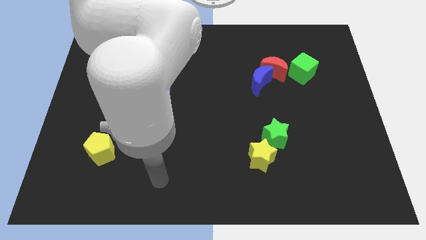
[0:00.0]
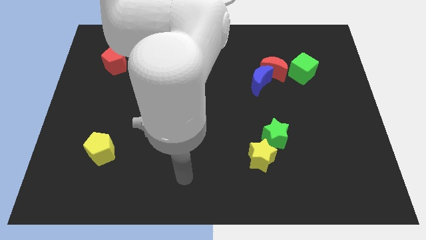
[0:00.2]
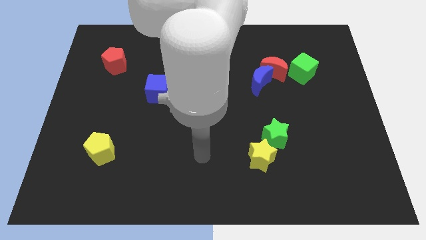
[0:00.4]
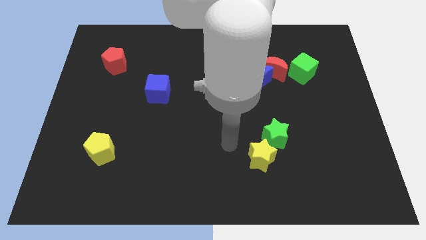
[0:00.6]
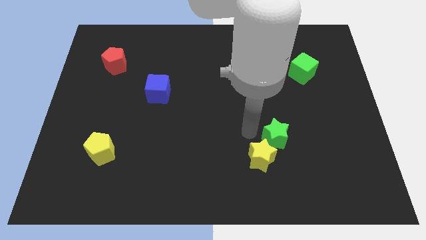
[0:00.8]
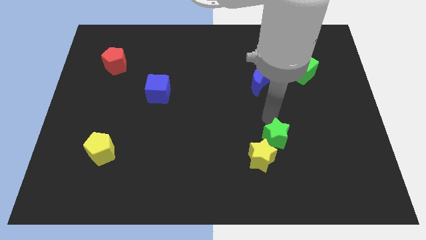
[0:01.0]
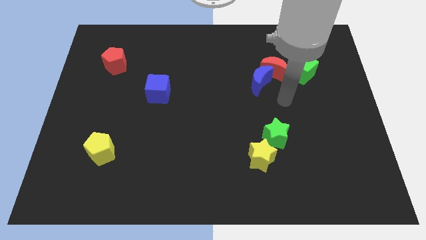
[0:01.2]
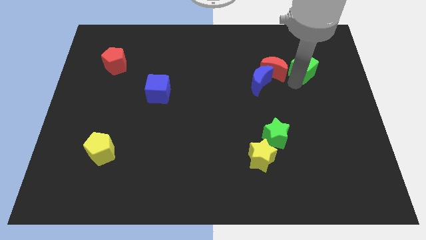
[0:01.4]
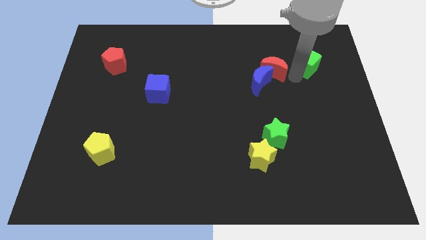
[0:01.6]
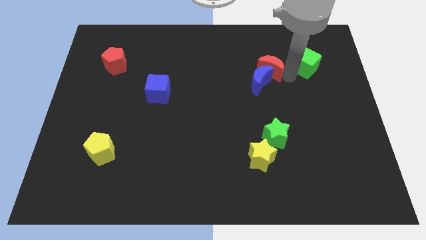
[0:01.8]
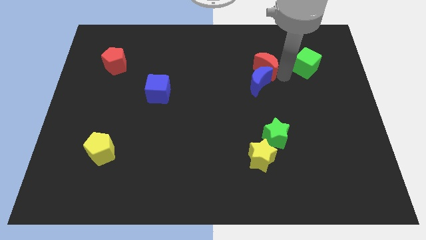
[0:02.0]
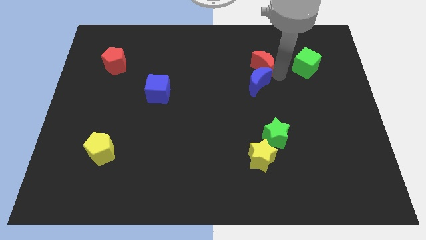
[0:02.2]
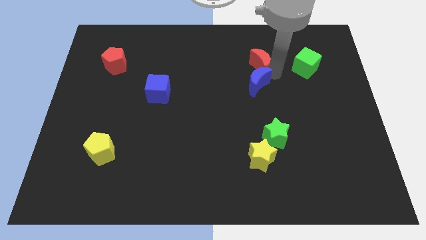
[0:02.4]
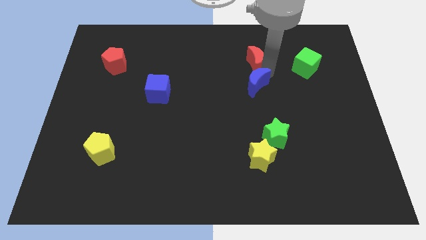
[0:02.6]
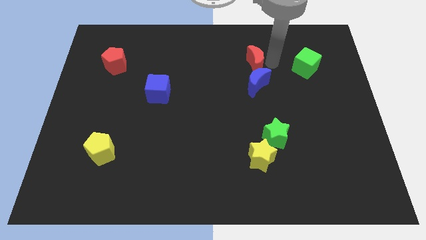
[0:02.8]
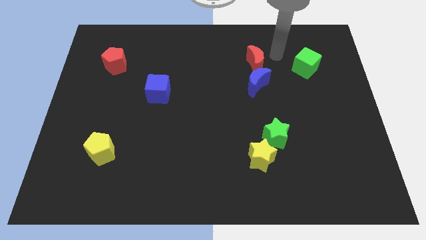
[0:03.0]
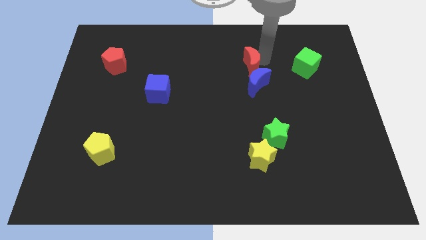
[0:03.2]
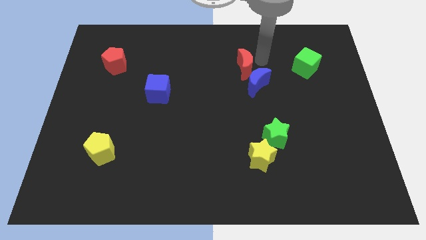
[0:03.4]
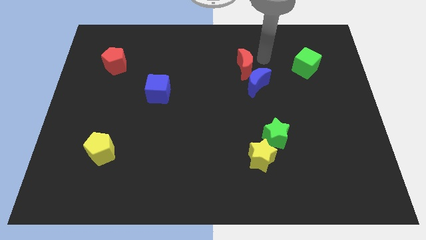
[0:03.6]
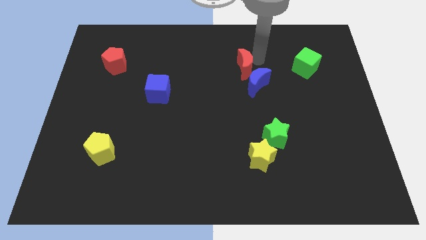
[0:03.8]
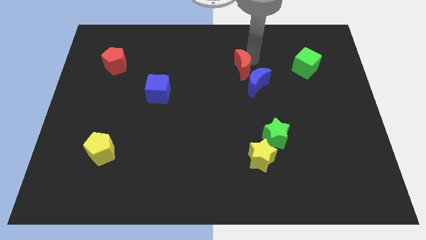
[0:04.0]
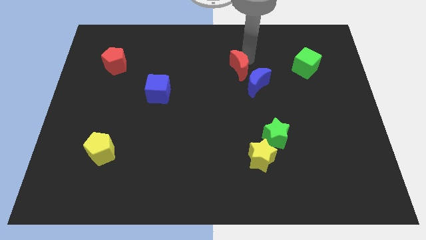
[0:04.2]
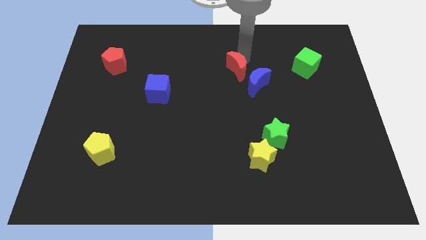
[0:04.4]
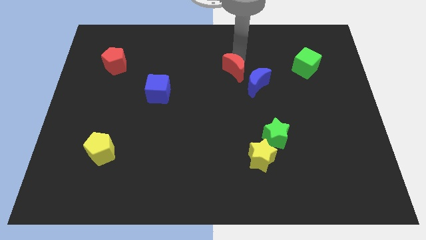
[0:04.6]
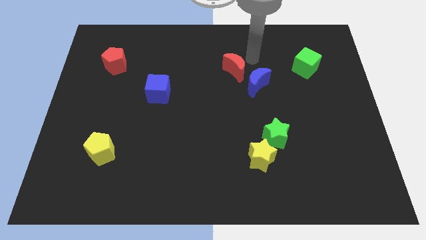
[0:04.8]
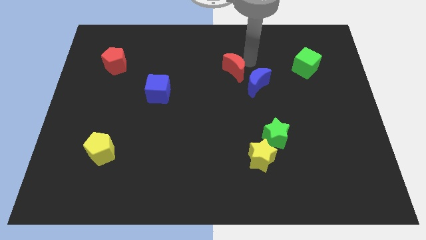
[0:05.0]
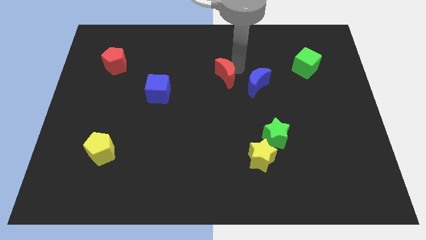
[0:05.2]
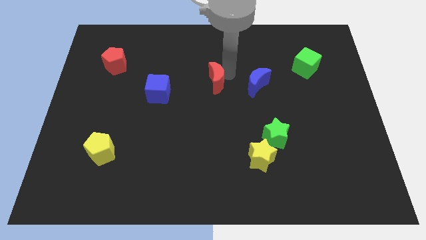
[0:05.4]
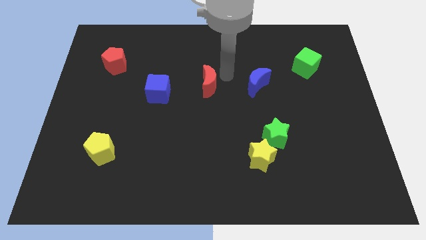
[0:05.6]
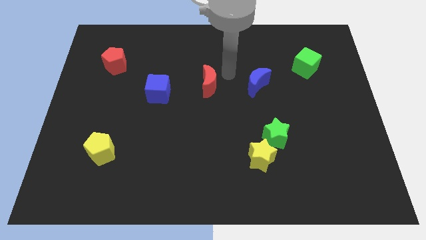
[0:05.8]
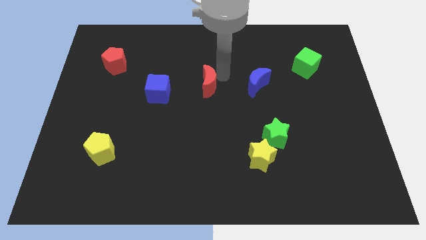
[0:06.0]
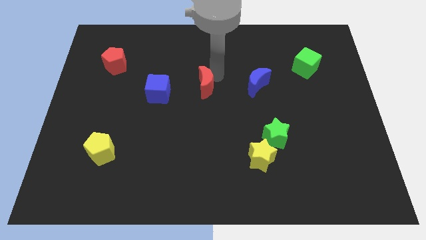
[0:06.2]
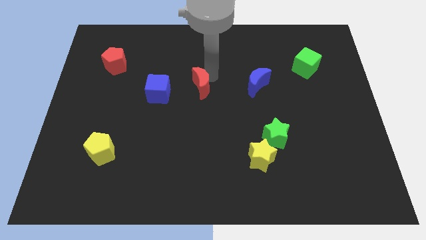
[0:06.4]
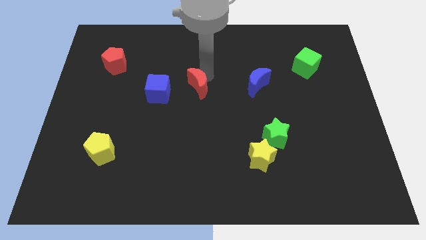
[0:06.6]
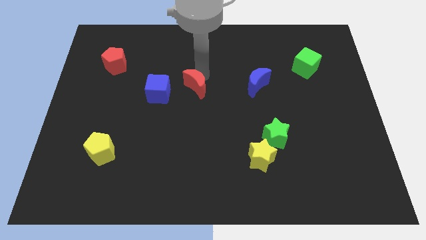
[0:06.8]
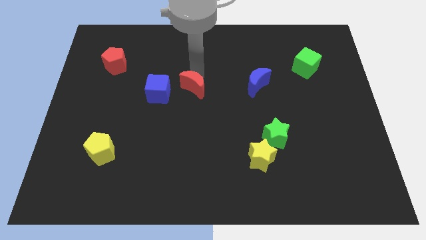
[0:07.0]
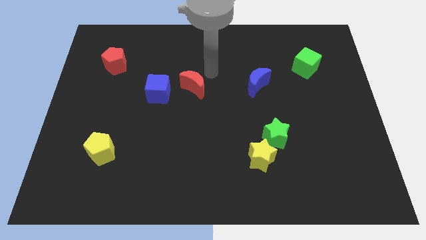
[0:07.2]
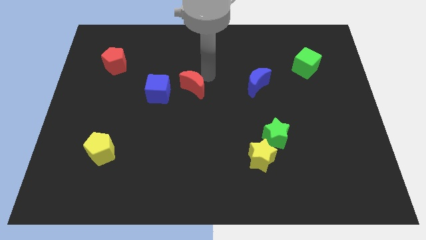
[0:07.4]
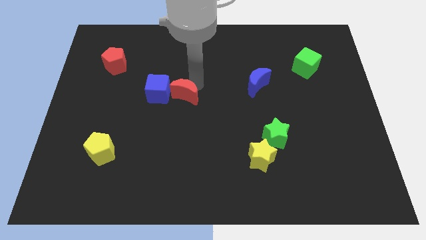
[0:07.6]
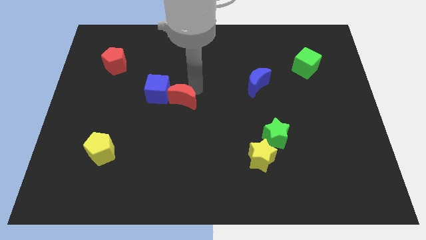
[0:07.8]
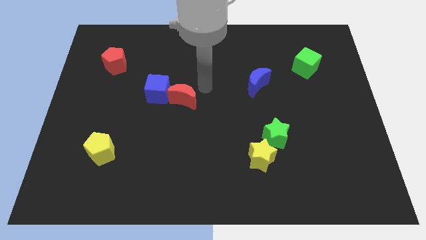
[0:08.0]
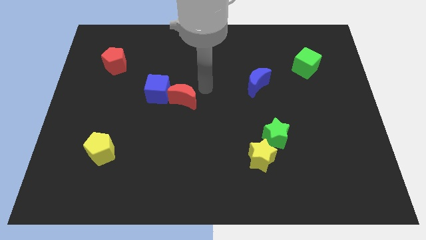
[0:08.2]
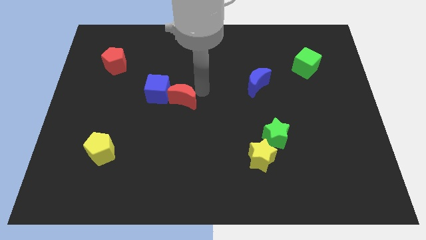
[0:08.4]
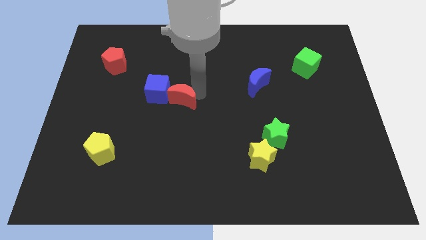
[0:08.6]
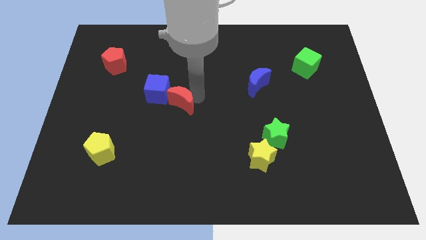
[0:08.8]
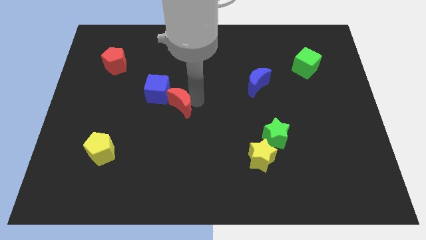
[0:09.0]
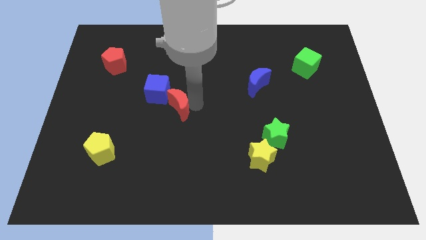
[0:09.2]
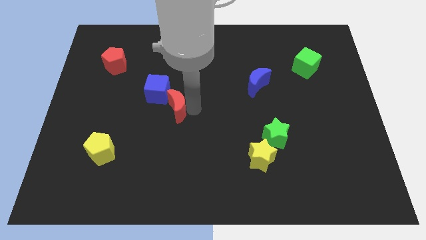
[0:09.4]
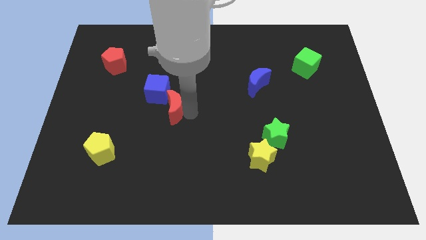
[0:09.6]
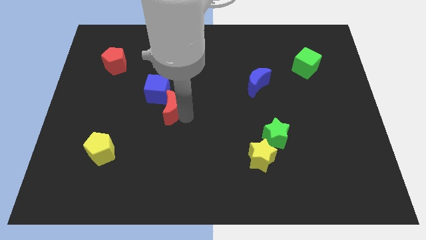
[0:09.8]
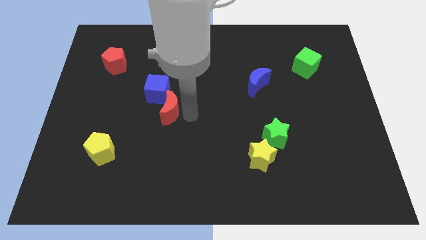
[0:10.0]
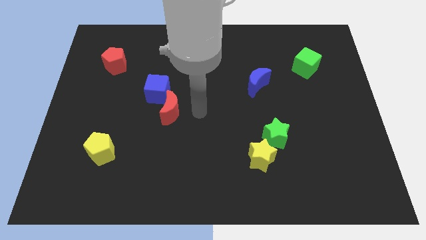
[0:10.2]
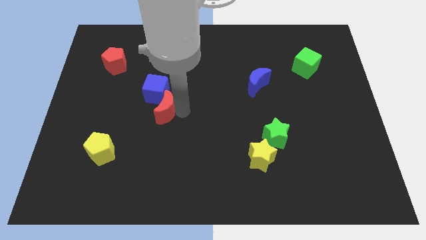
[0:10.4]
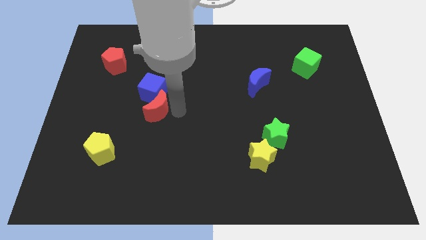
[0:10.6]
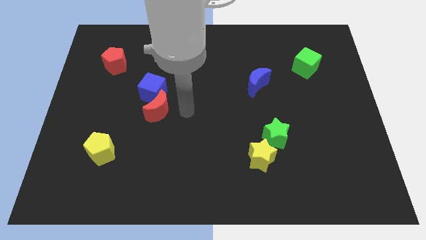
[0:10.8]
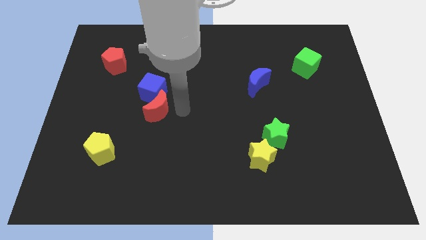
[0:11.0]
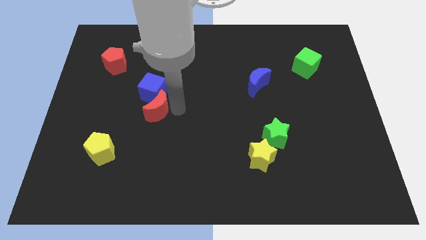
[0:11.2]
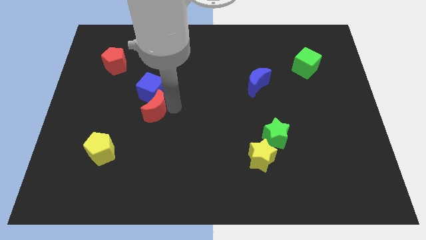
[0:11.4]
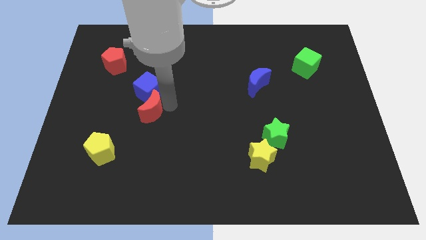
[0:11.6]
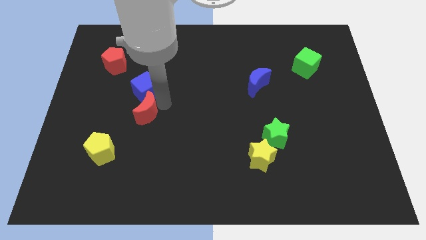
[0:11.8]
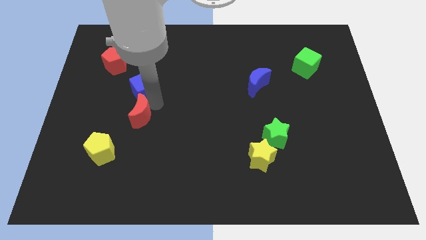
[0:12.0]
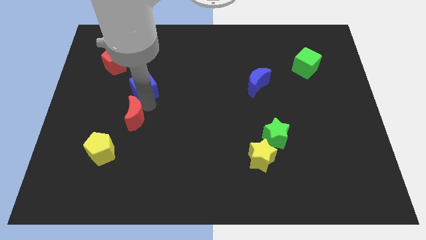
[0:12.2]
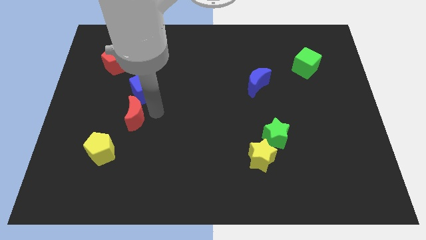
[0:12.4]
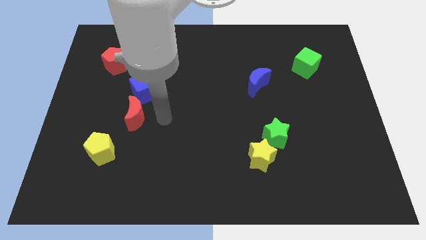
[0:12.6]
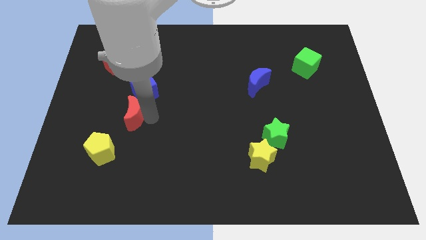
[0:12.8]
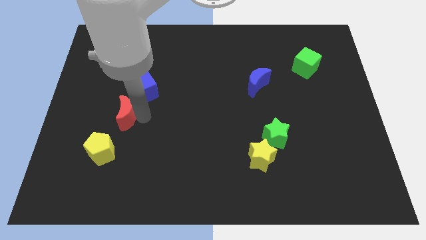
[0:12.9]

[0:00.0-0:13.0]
push the red moon to the top side of the yellow pentagon
